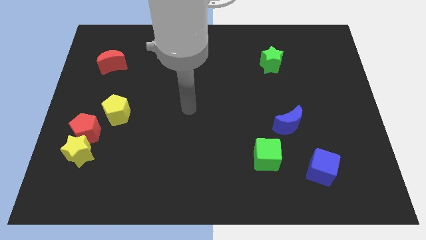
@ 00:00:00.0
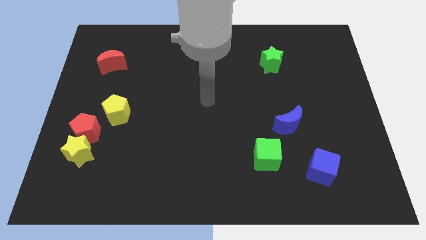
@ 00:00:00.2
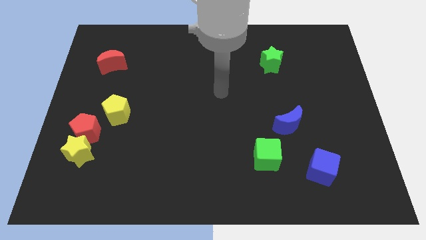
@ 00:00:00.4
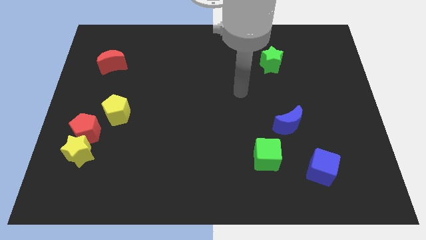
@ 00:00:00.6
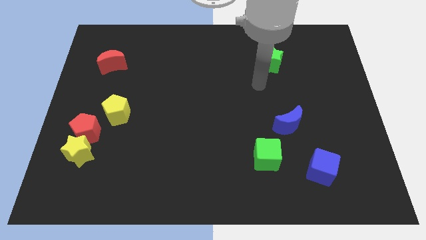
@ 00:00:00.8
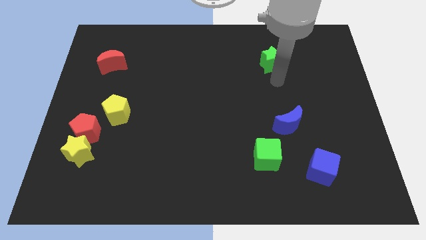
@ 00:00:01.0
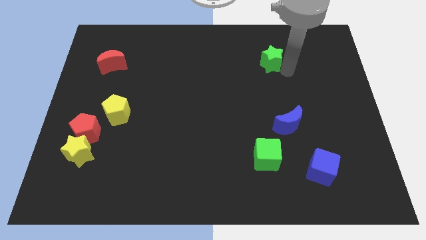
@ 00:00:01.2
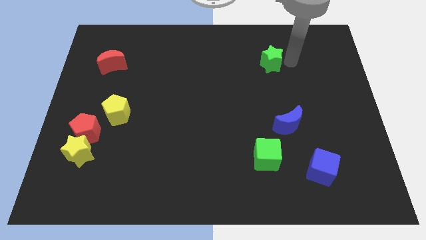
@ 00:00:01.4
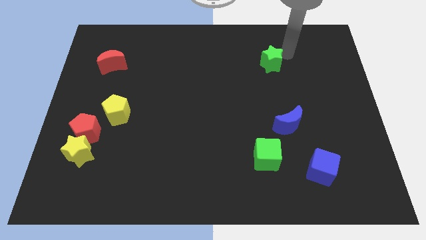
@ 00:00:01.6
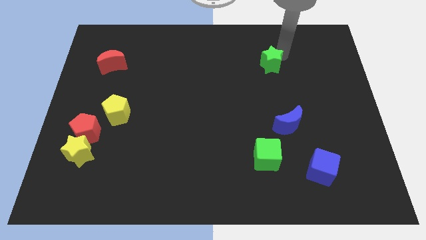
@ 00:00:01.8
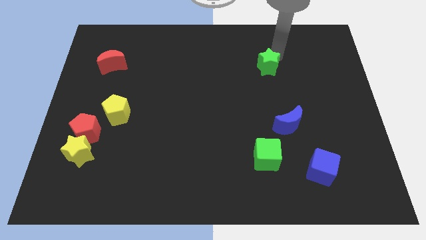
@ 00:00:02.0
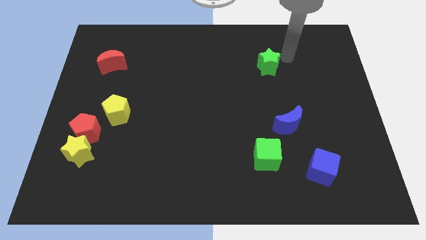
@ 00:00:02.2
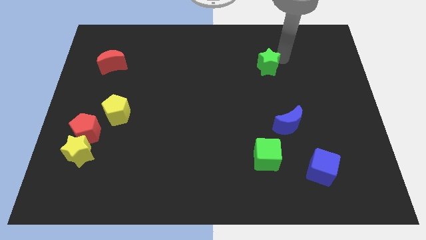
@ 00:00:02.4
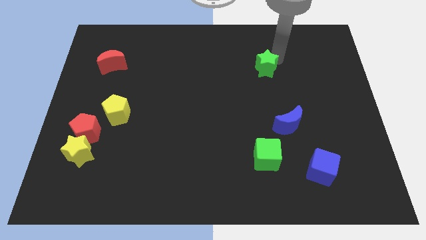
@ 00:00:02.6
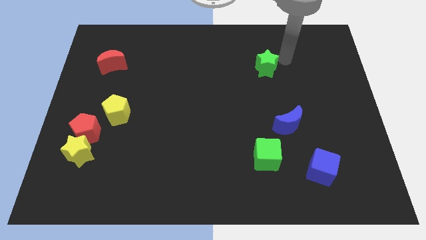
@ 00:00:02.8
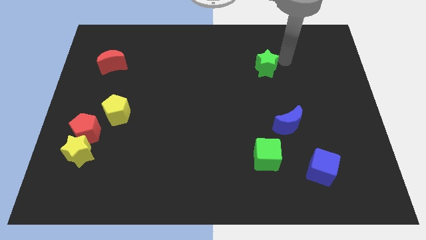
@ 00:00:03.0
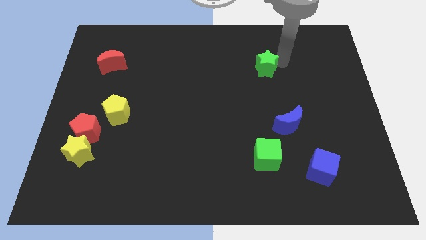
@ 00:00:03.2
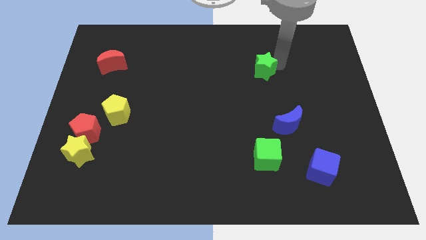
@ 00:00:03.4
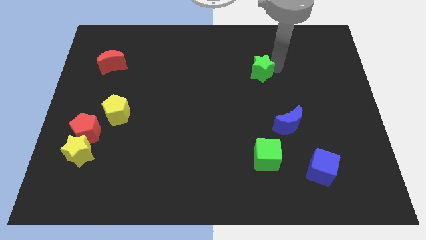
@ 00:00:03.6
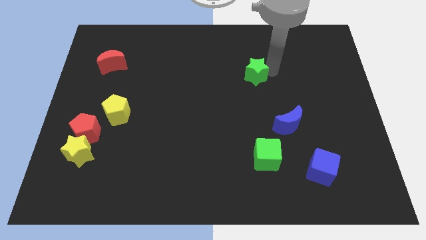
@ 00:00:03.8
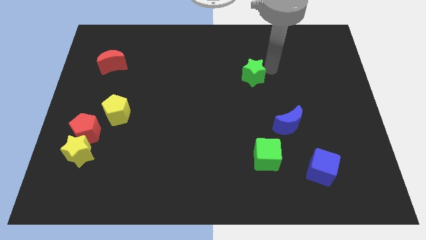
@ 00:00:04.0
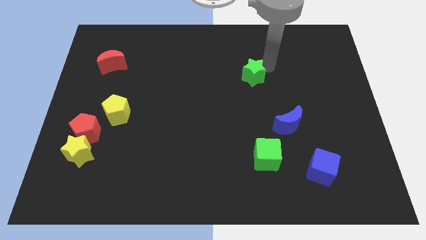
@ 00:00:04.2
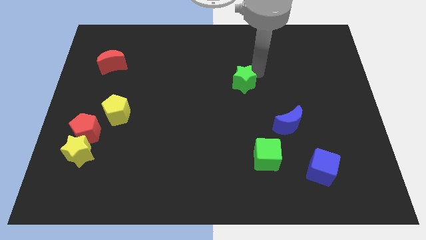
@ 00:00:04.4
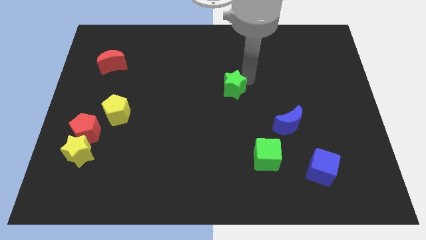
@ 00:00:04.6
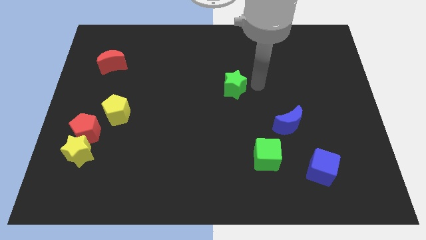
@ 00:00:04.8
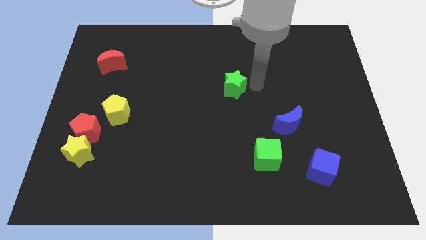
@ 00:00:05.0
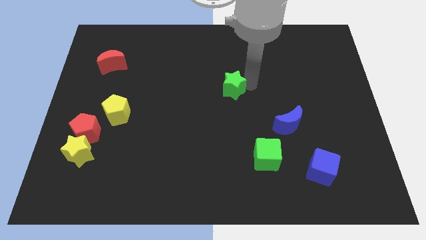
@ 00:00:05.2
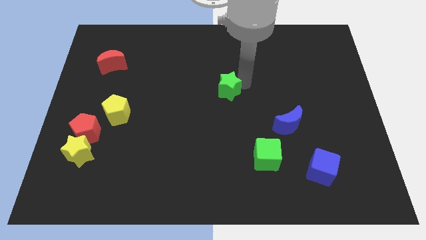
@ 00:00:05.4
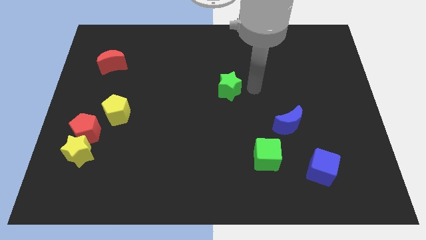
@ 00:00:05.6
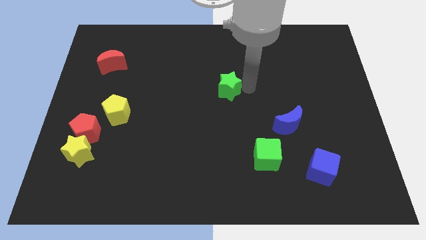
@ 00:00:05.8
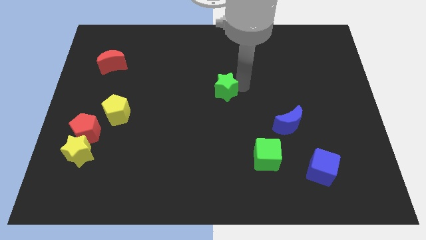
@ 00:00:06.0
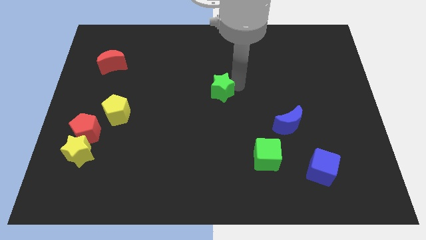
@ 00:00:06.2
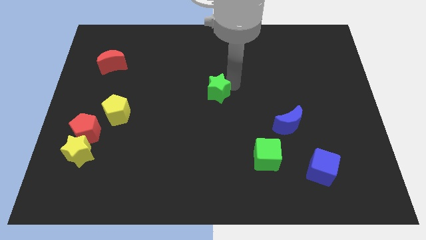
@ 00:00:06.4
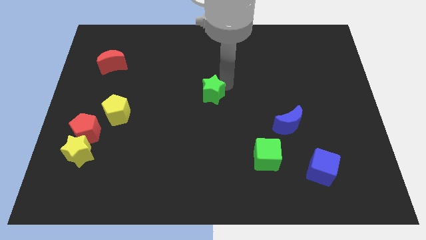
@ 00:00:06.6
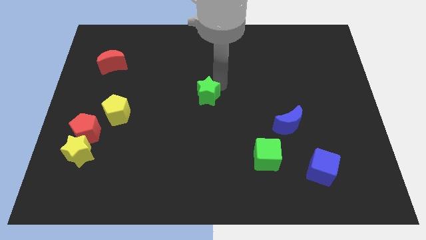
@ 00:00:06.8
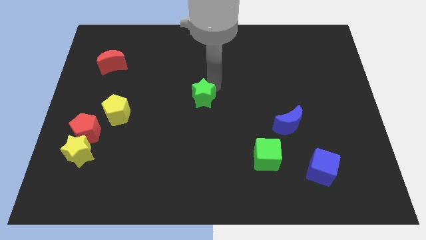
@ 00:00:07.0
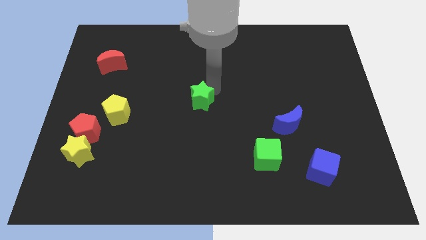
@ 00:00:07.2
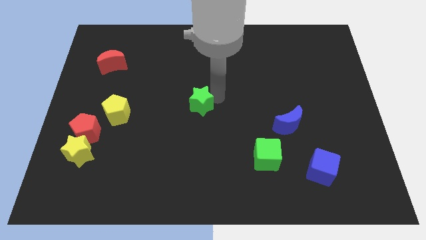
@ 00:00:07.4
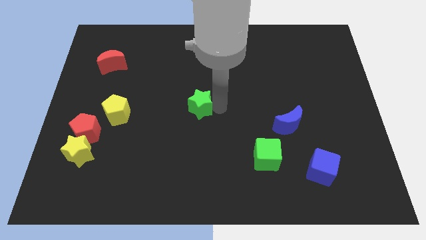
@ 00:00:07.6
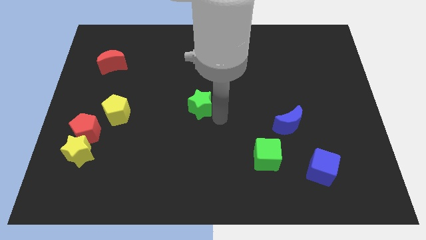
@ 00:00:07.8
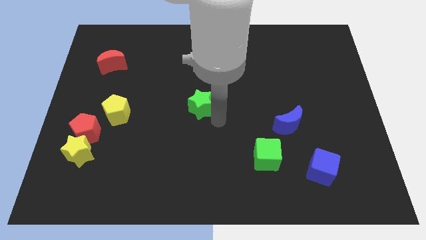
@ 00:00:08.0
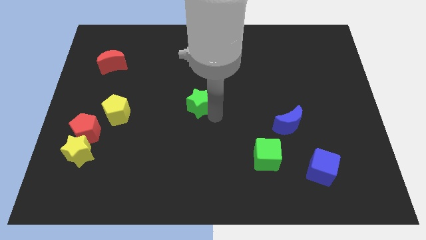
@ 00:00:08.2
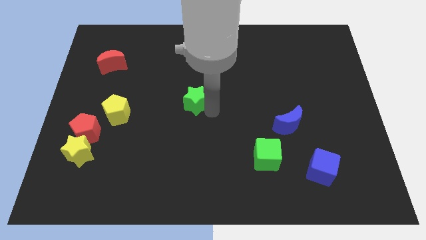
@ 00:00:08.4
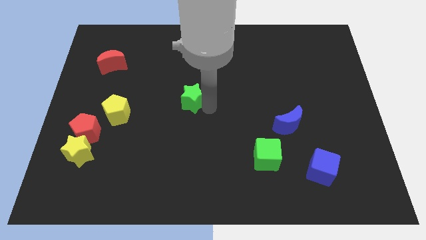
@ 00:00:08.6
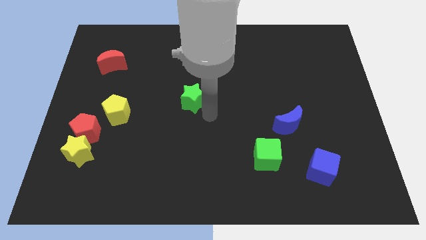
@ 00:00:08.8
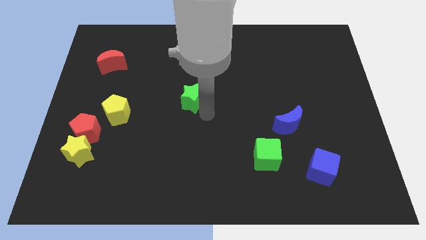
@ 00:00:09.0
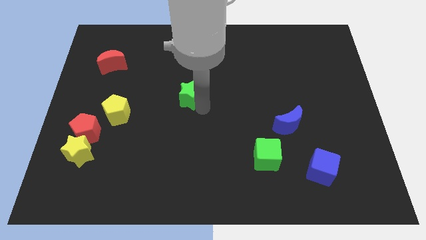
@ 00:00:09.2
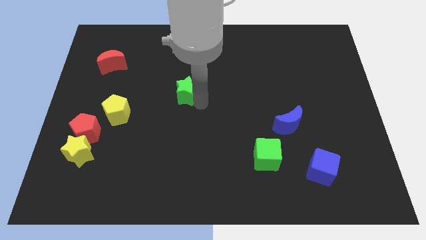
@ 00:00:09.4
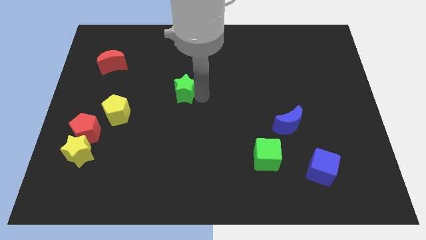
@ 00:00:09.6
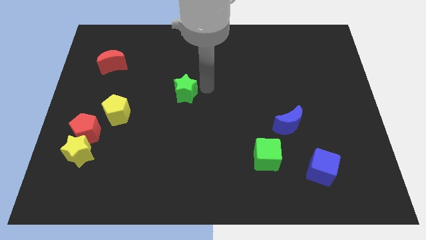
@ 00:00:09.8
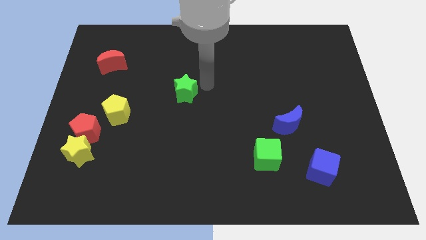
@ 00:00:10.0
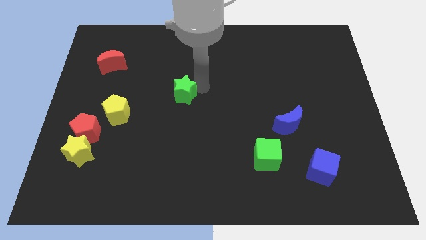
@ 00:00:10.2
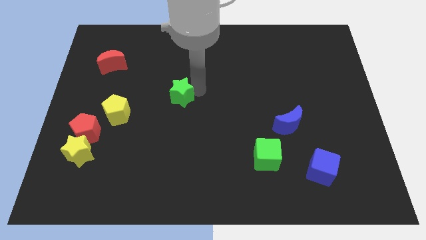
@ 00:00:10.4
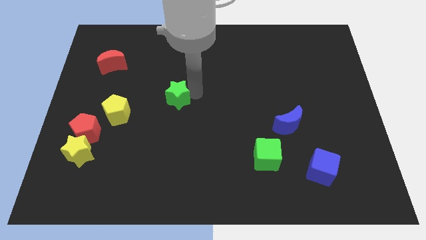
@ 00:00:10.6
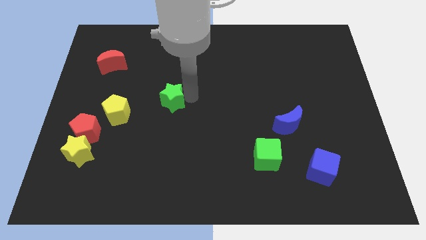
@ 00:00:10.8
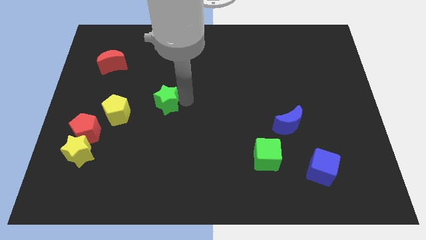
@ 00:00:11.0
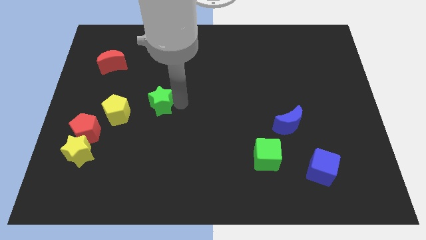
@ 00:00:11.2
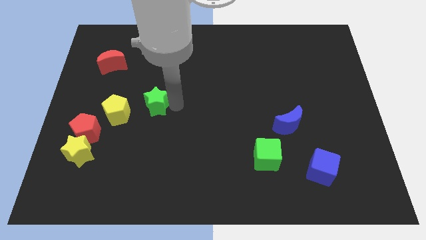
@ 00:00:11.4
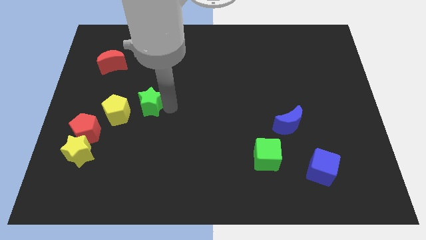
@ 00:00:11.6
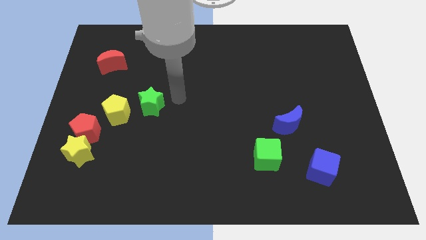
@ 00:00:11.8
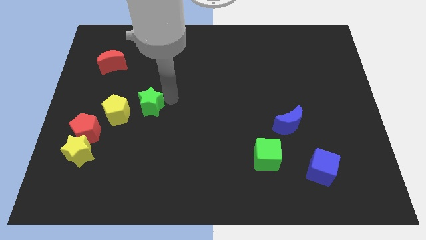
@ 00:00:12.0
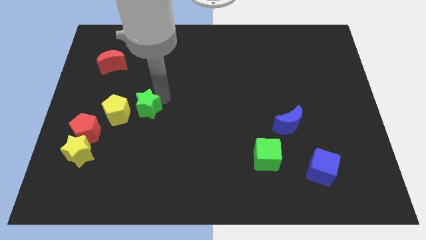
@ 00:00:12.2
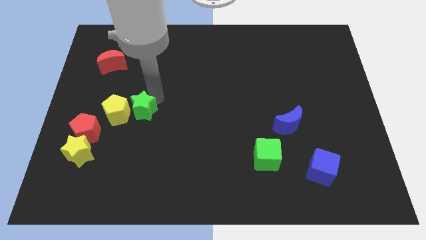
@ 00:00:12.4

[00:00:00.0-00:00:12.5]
slide the green star towards the yellow pentagon
